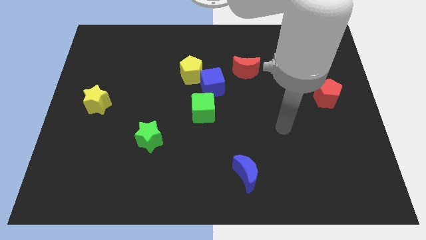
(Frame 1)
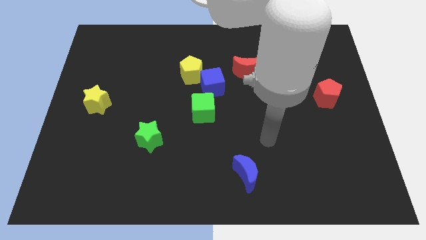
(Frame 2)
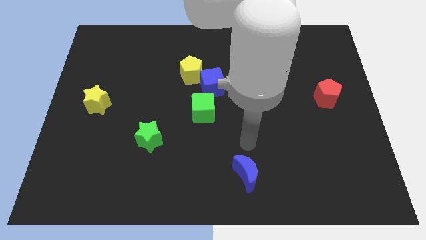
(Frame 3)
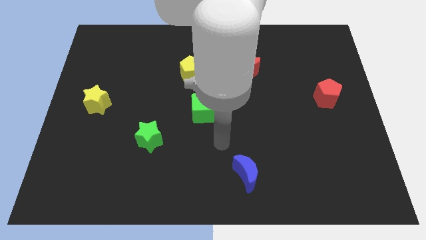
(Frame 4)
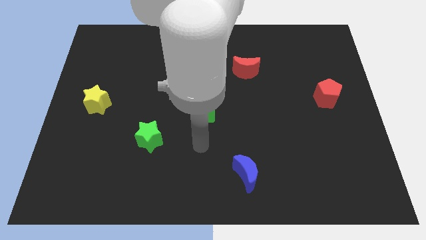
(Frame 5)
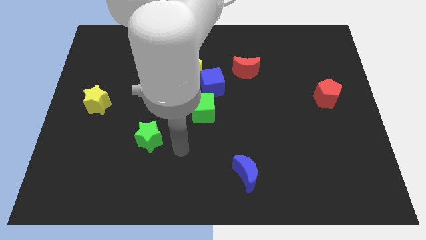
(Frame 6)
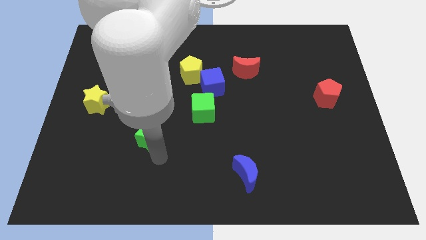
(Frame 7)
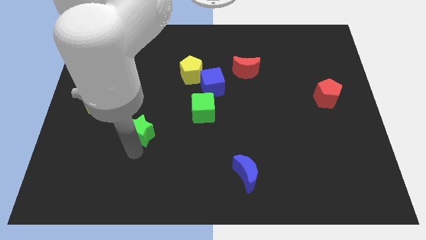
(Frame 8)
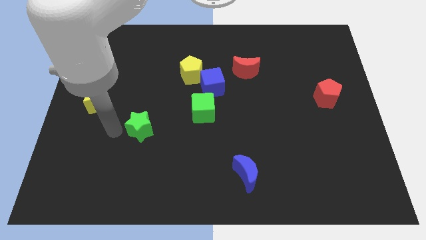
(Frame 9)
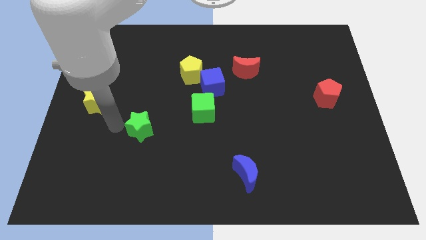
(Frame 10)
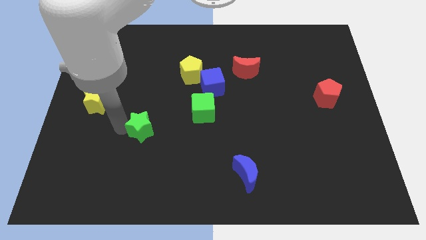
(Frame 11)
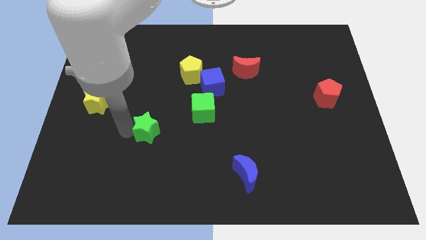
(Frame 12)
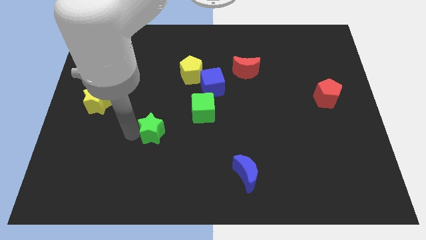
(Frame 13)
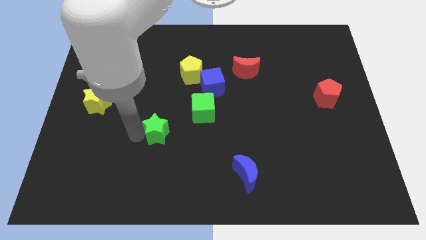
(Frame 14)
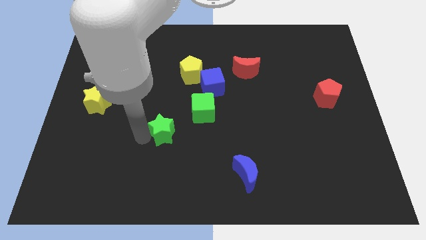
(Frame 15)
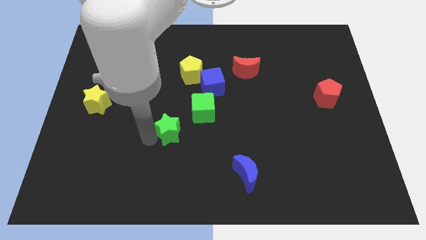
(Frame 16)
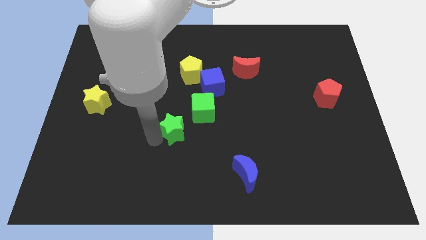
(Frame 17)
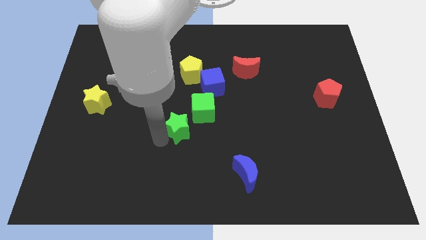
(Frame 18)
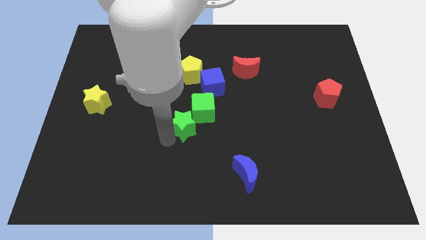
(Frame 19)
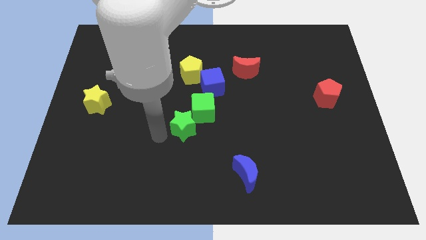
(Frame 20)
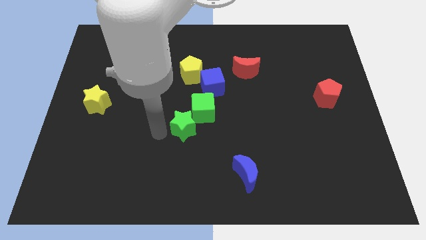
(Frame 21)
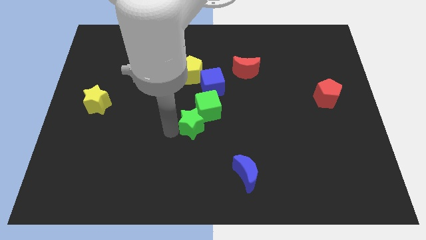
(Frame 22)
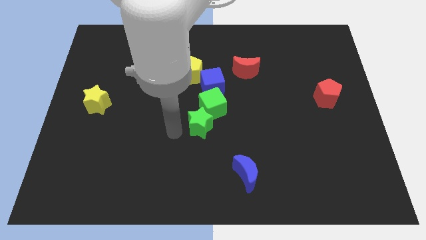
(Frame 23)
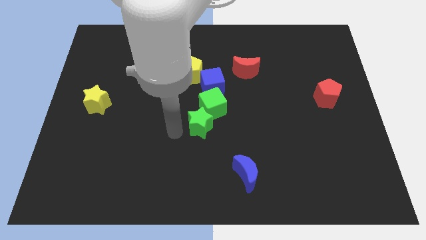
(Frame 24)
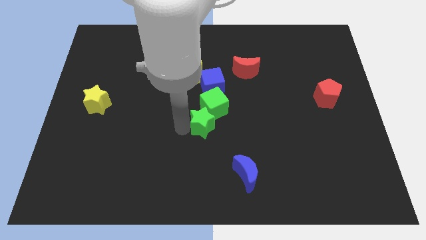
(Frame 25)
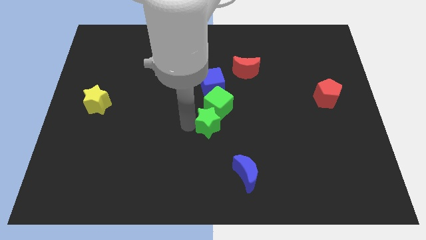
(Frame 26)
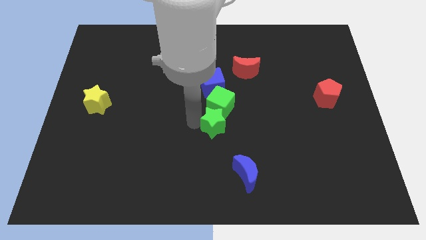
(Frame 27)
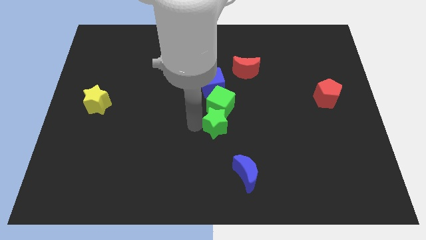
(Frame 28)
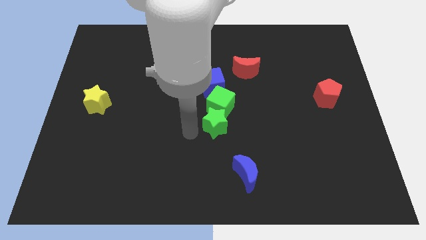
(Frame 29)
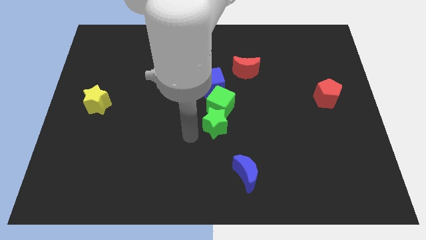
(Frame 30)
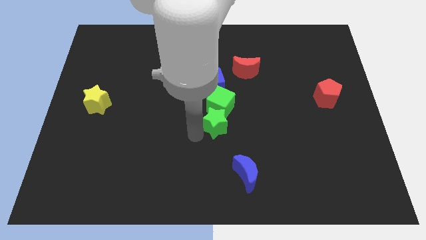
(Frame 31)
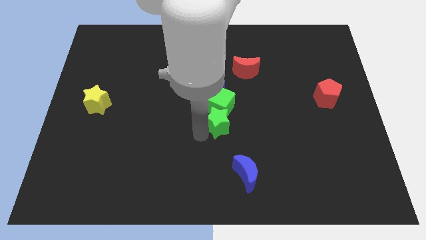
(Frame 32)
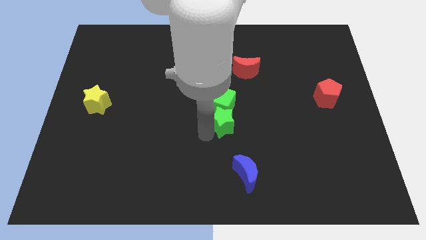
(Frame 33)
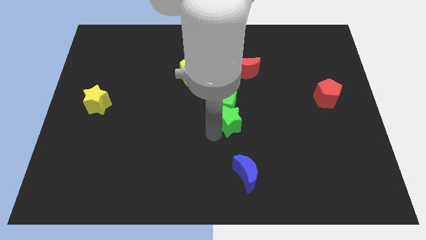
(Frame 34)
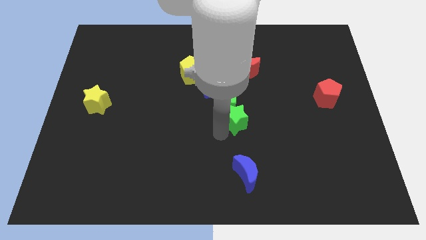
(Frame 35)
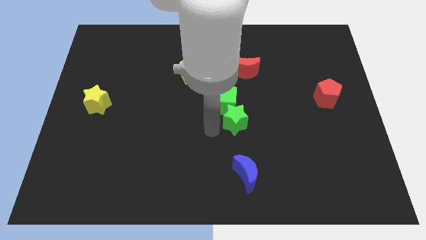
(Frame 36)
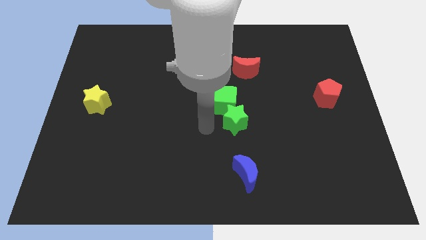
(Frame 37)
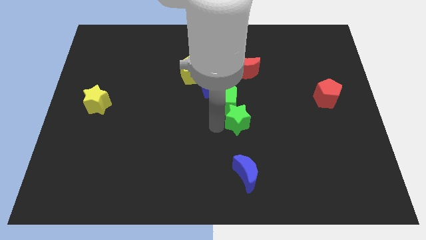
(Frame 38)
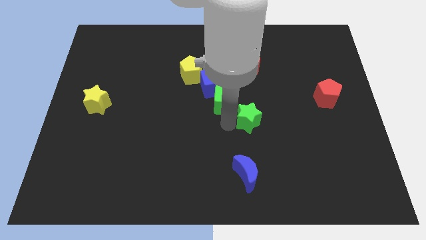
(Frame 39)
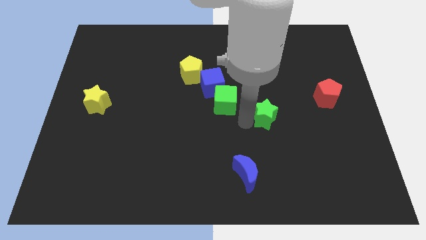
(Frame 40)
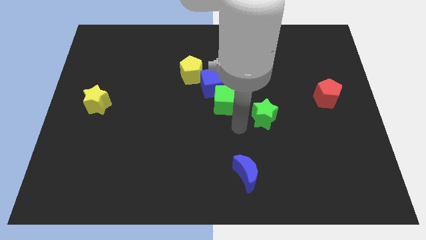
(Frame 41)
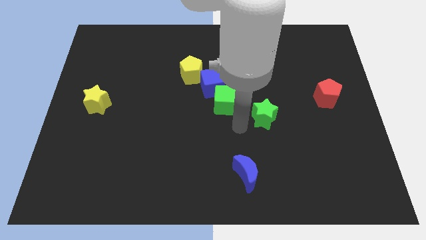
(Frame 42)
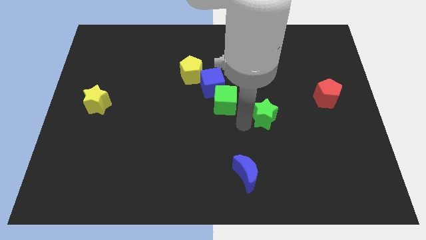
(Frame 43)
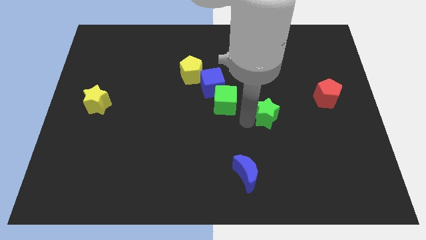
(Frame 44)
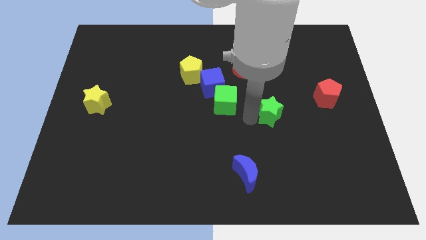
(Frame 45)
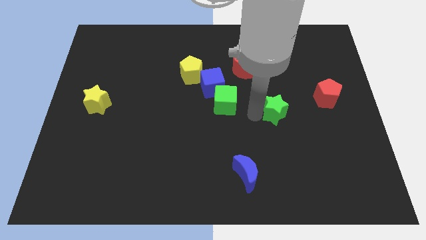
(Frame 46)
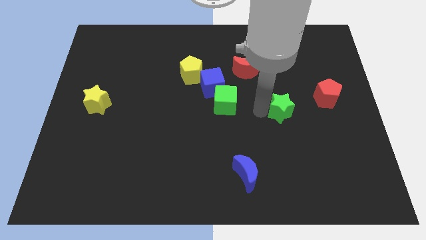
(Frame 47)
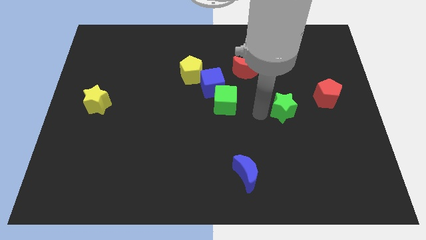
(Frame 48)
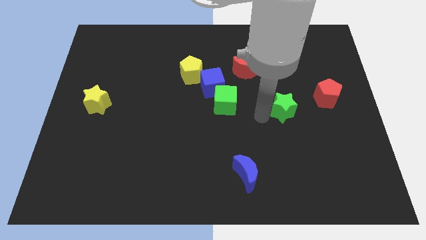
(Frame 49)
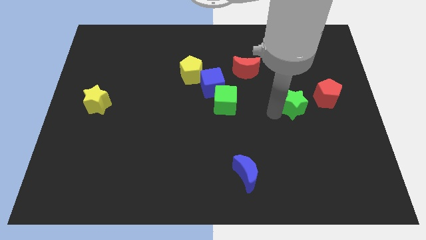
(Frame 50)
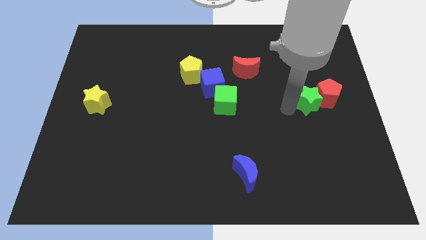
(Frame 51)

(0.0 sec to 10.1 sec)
slide the green star to the red pentagon

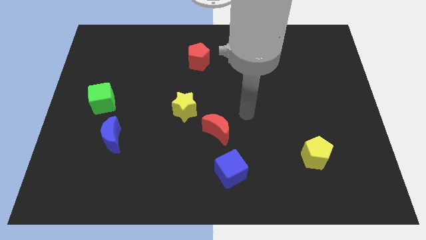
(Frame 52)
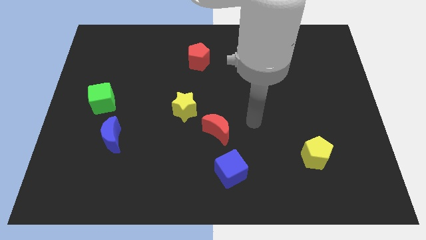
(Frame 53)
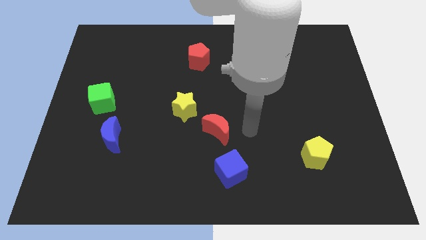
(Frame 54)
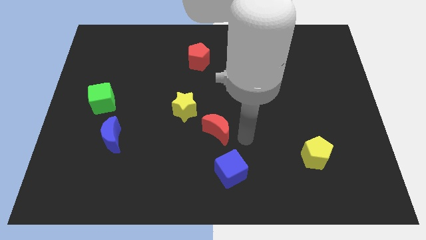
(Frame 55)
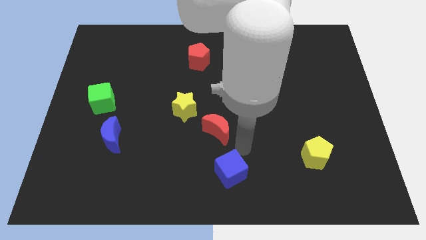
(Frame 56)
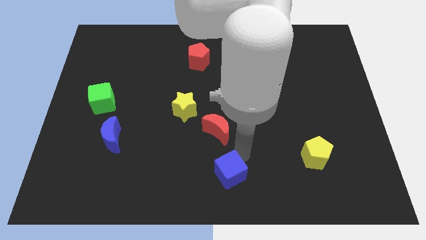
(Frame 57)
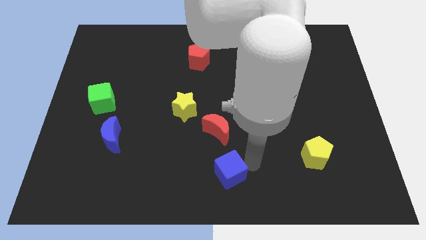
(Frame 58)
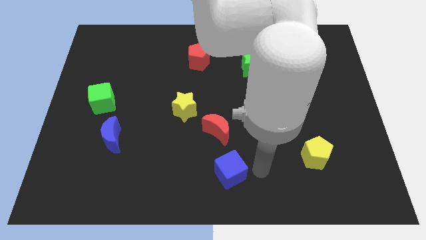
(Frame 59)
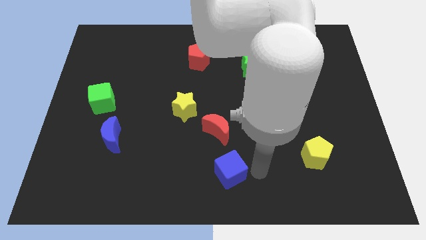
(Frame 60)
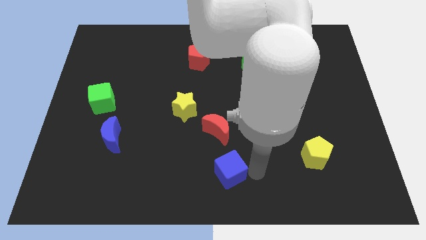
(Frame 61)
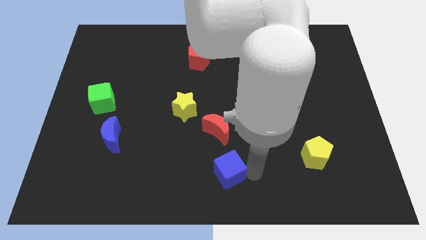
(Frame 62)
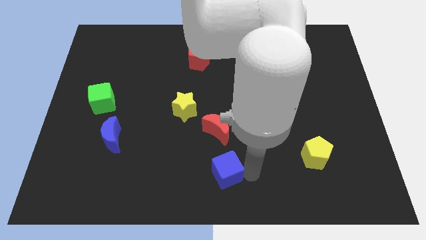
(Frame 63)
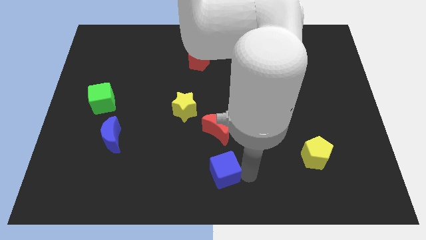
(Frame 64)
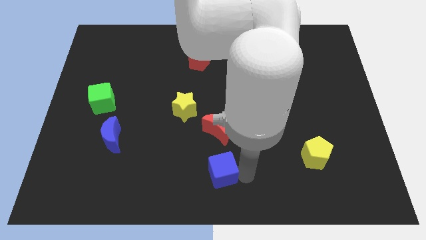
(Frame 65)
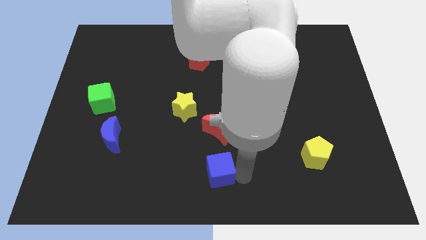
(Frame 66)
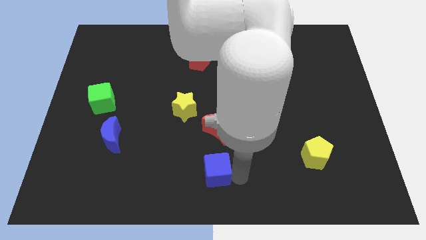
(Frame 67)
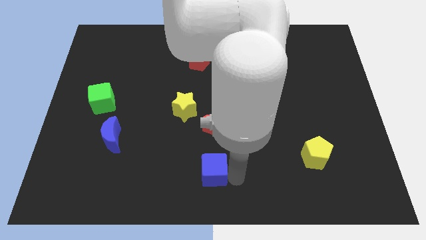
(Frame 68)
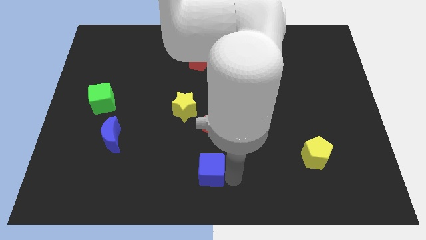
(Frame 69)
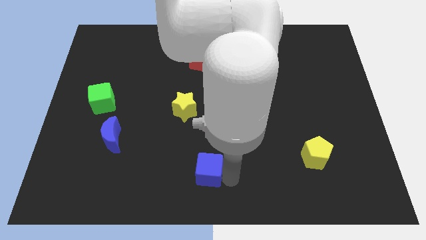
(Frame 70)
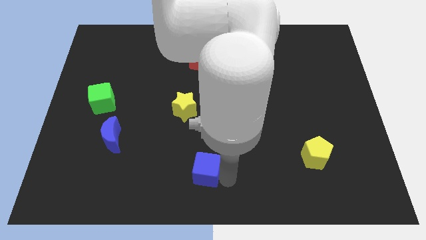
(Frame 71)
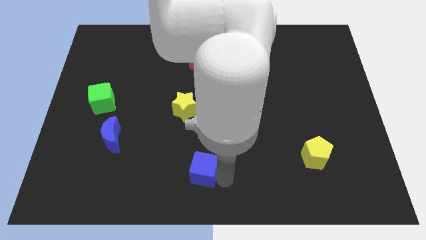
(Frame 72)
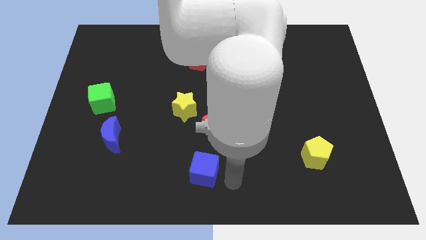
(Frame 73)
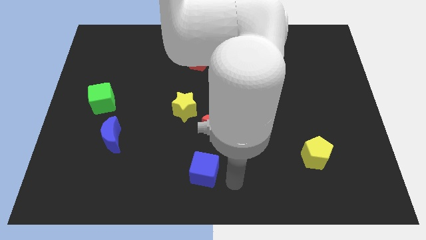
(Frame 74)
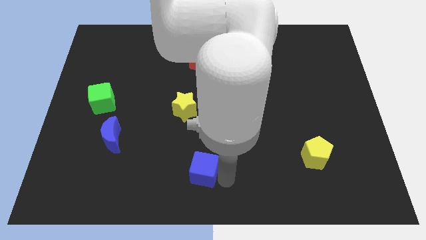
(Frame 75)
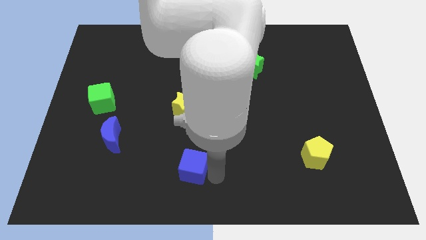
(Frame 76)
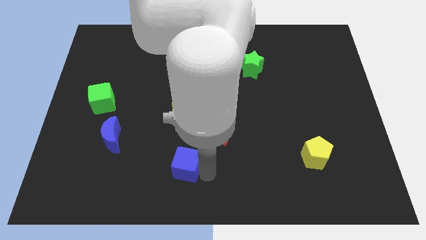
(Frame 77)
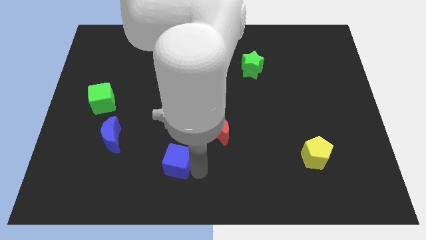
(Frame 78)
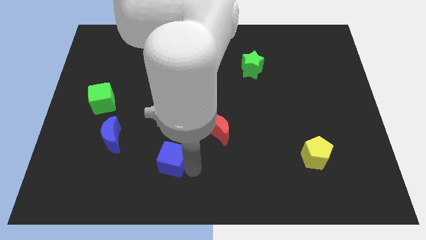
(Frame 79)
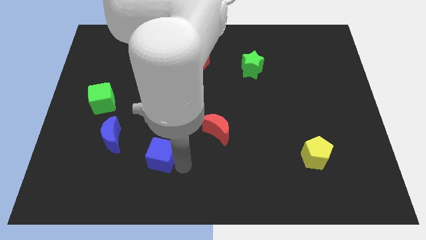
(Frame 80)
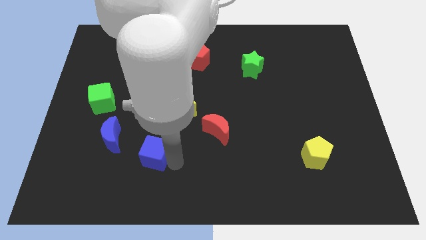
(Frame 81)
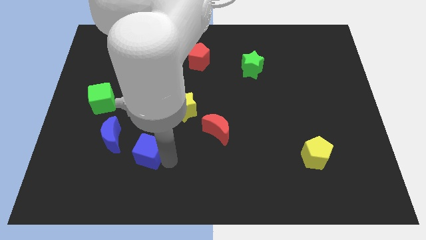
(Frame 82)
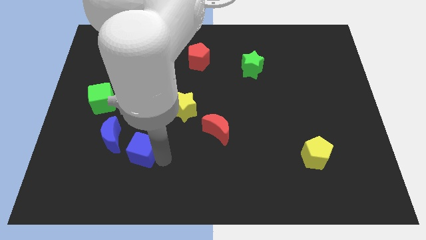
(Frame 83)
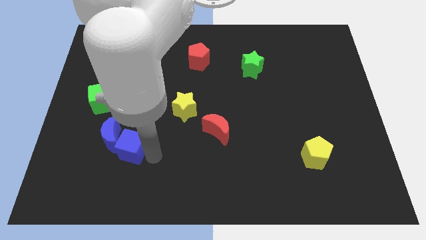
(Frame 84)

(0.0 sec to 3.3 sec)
move the blue cube close to the blue moon
